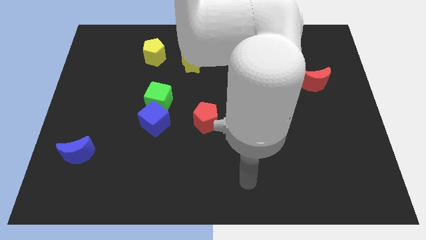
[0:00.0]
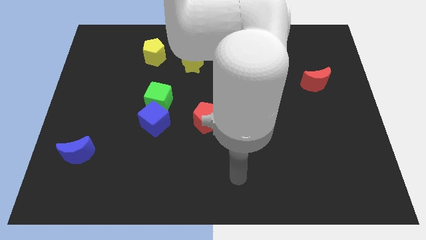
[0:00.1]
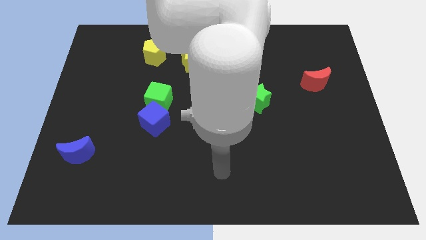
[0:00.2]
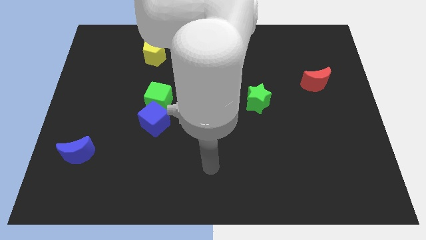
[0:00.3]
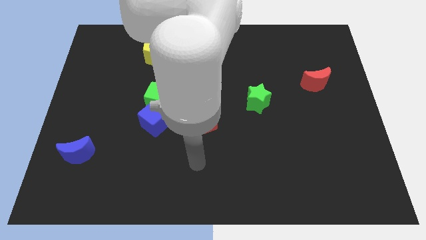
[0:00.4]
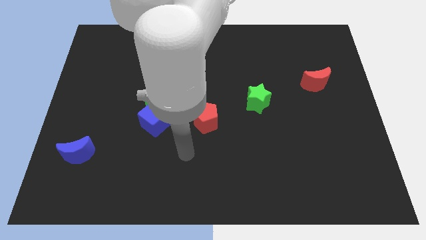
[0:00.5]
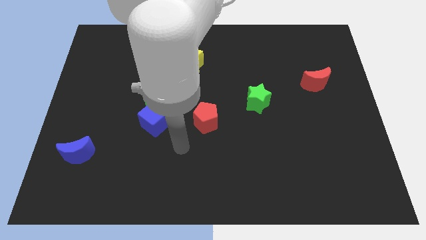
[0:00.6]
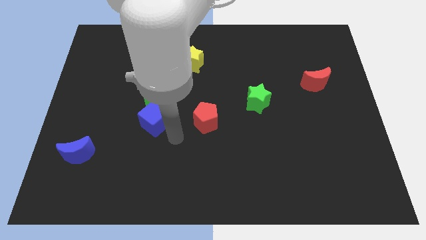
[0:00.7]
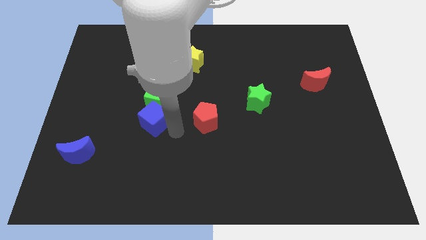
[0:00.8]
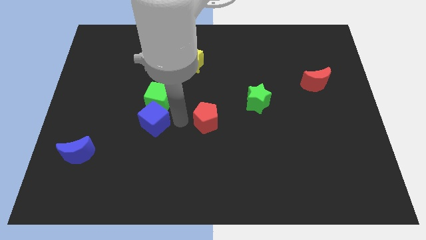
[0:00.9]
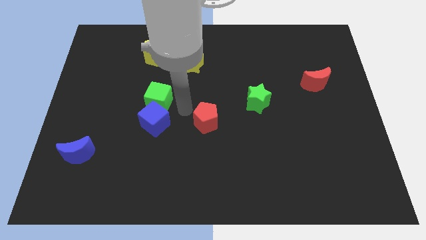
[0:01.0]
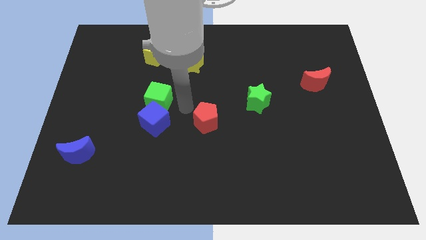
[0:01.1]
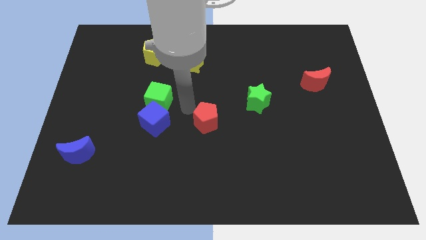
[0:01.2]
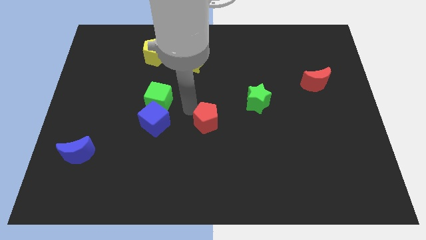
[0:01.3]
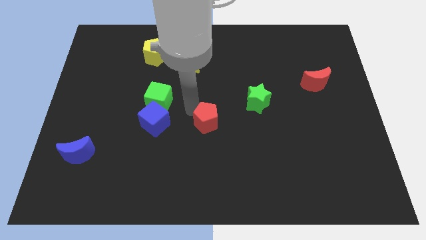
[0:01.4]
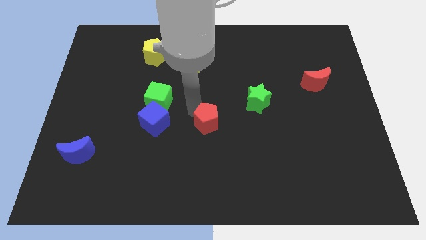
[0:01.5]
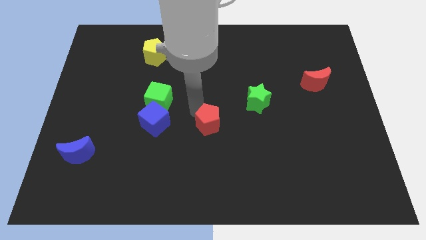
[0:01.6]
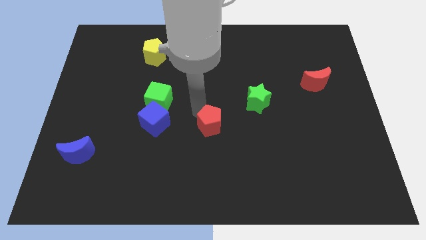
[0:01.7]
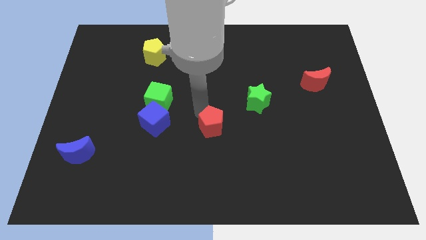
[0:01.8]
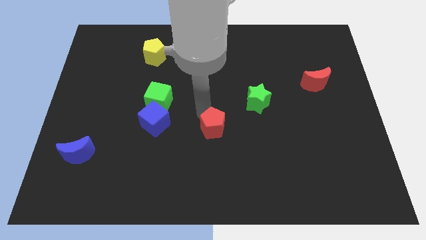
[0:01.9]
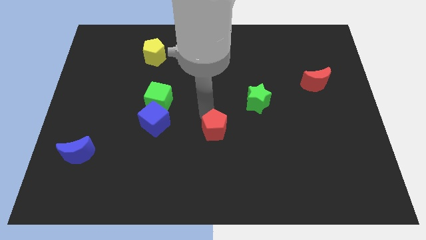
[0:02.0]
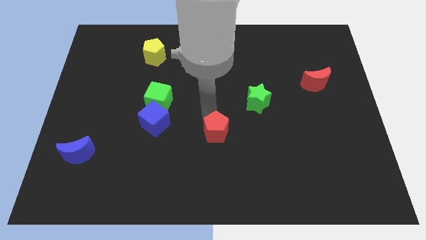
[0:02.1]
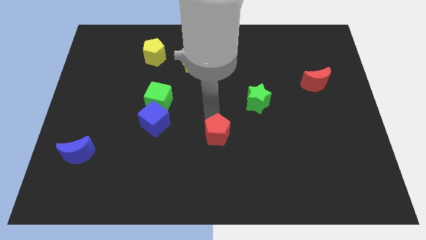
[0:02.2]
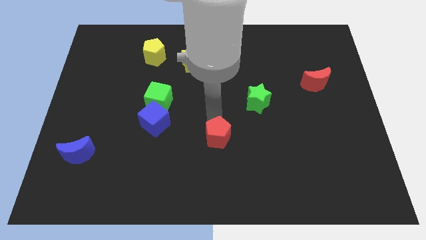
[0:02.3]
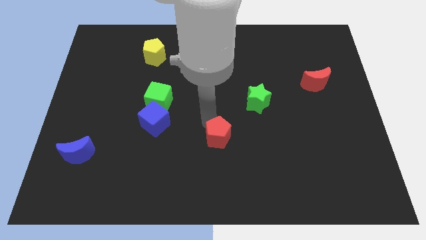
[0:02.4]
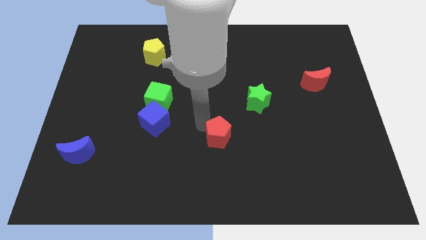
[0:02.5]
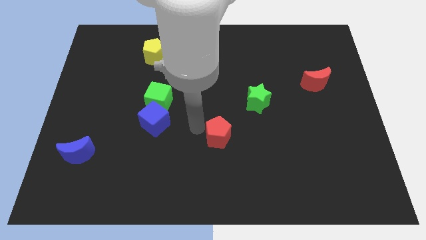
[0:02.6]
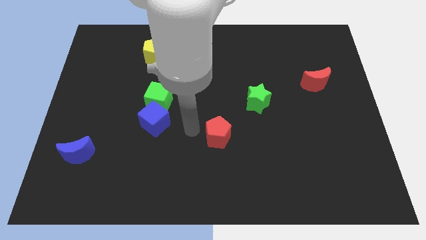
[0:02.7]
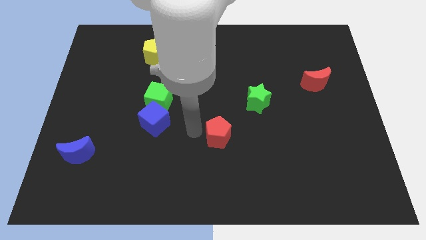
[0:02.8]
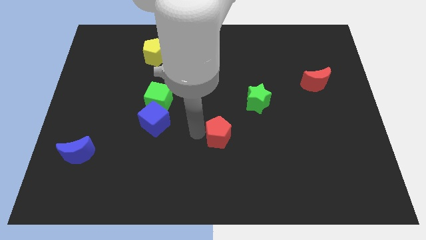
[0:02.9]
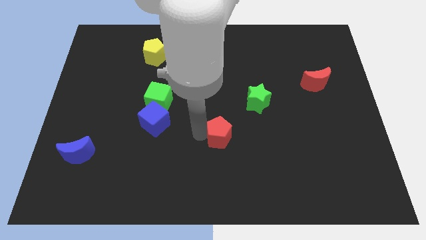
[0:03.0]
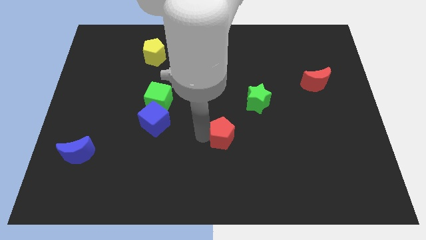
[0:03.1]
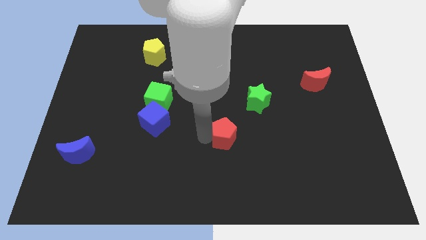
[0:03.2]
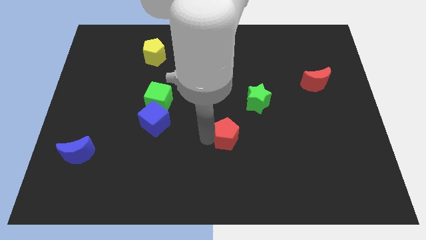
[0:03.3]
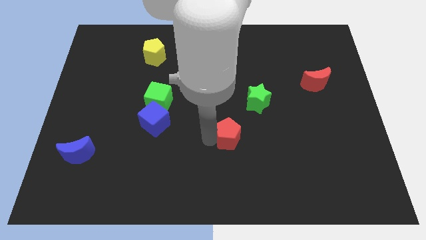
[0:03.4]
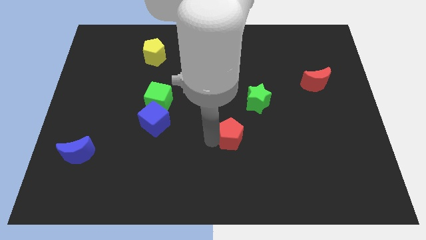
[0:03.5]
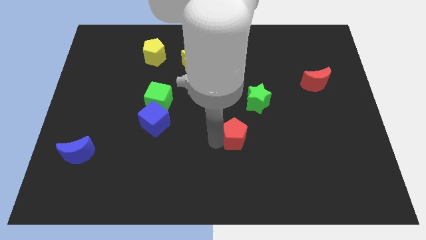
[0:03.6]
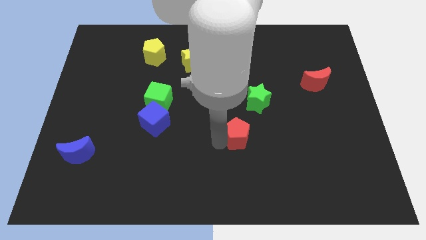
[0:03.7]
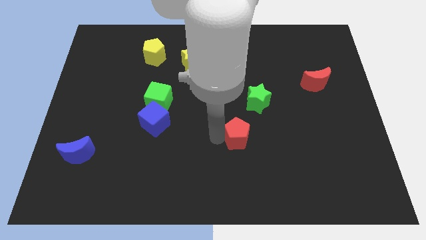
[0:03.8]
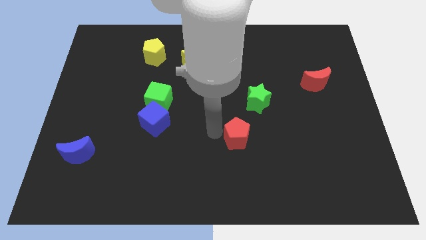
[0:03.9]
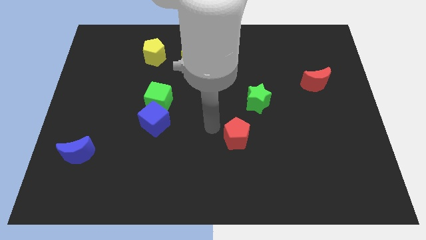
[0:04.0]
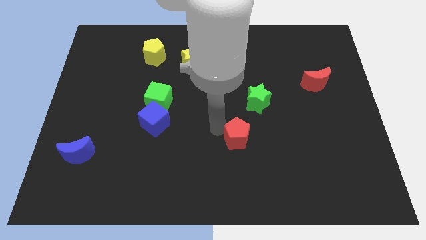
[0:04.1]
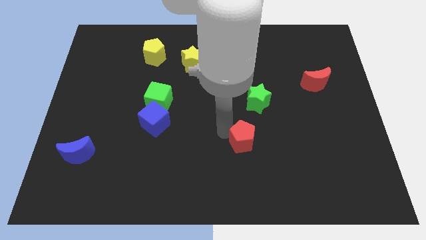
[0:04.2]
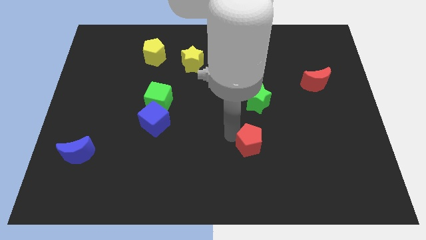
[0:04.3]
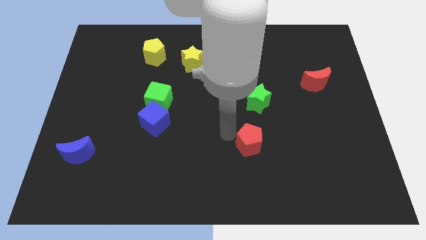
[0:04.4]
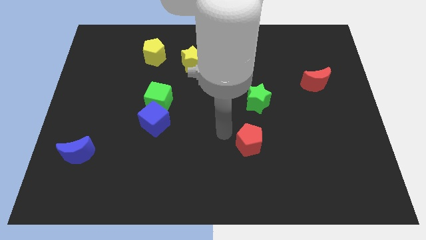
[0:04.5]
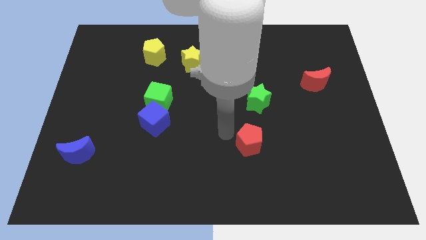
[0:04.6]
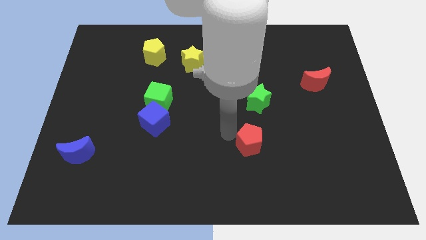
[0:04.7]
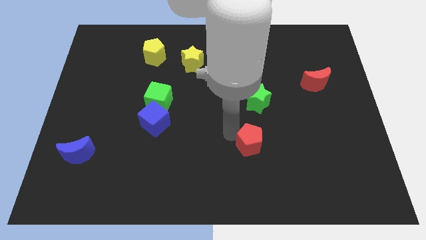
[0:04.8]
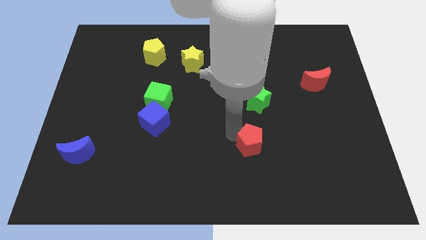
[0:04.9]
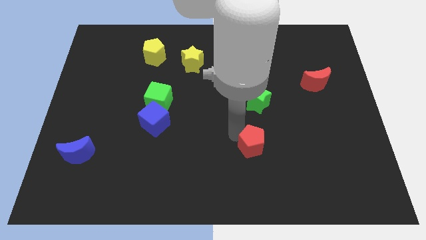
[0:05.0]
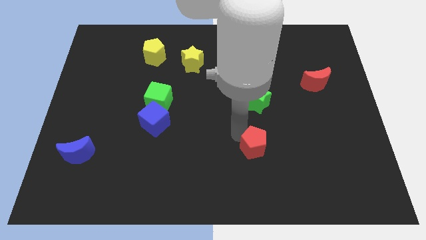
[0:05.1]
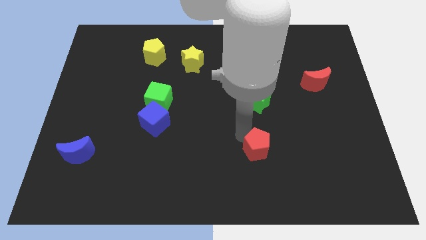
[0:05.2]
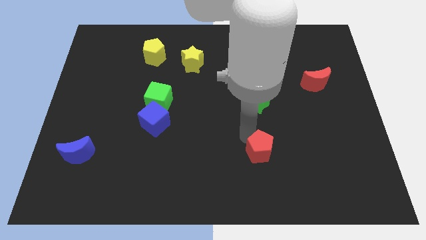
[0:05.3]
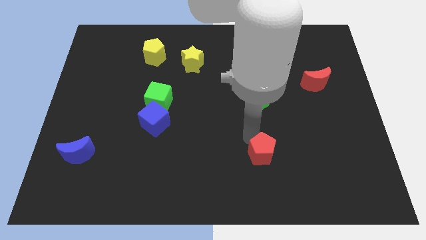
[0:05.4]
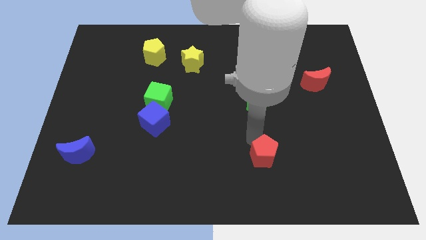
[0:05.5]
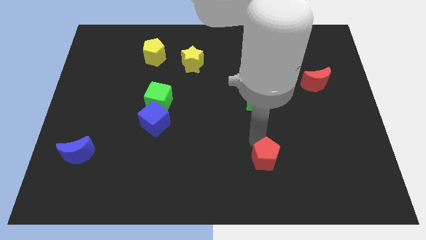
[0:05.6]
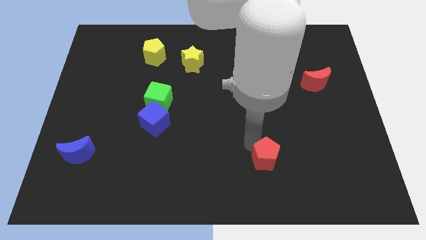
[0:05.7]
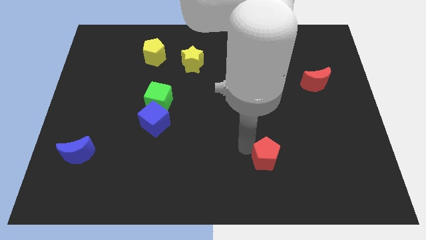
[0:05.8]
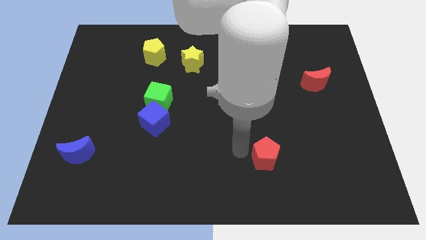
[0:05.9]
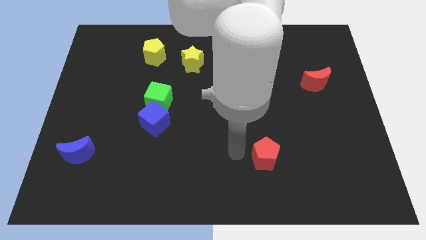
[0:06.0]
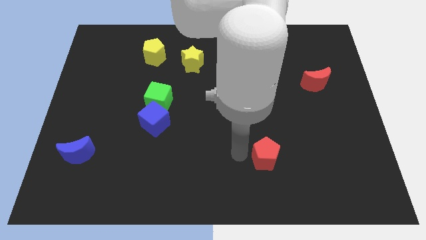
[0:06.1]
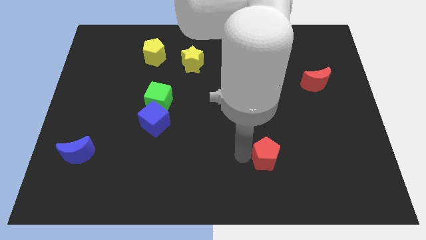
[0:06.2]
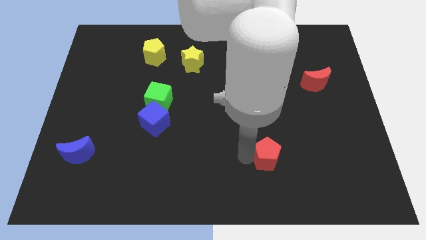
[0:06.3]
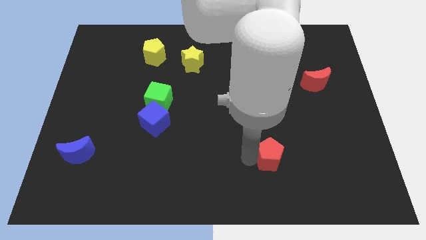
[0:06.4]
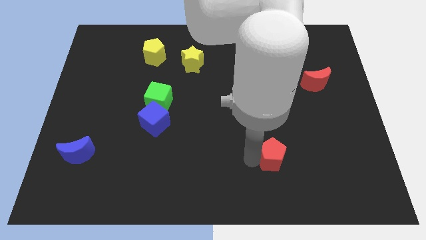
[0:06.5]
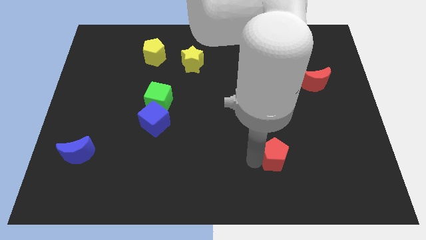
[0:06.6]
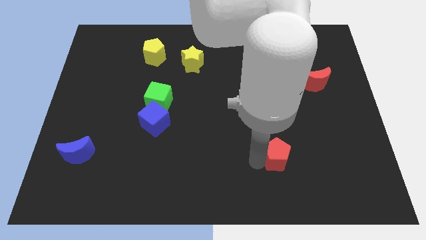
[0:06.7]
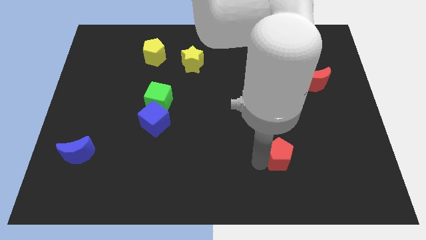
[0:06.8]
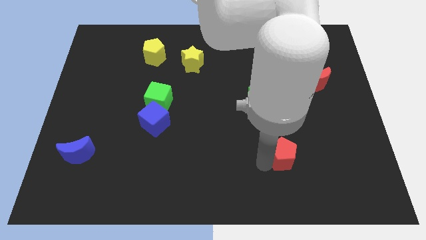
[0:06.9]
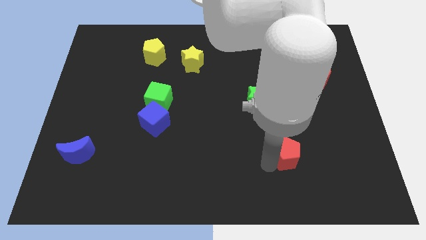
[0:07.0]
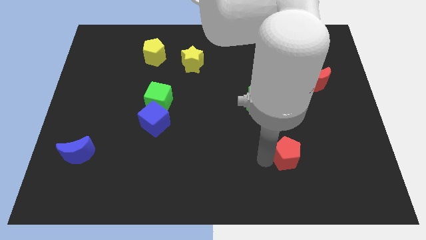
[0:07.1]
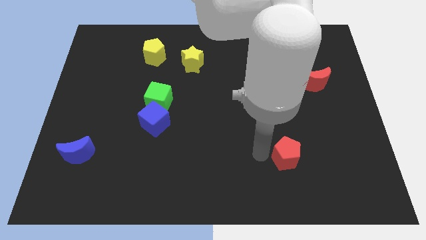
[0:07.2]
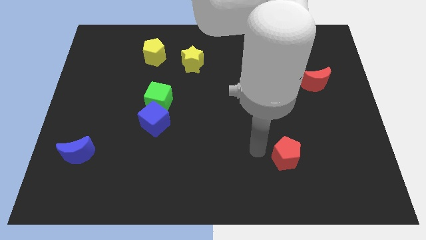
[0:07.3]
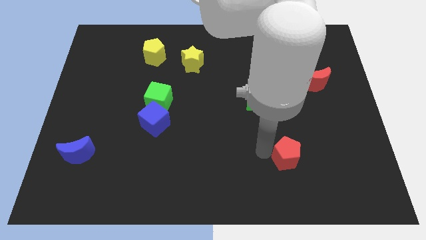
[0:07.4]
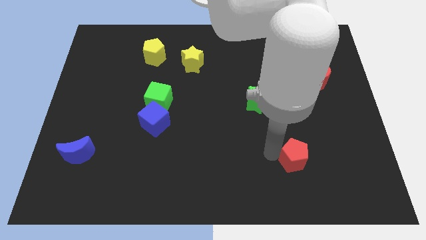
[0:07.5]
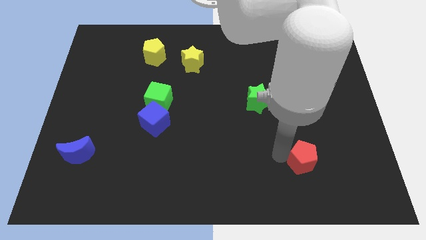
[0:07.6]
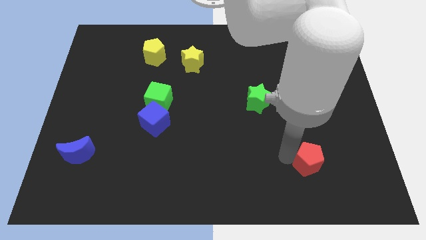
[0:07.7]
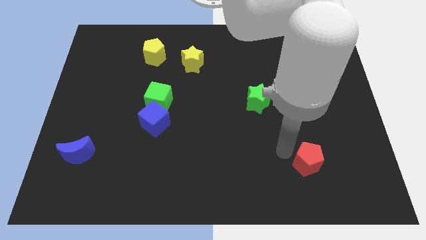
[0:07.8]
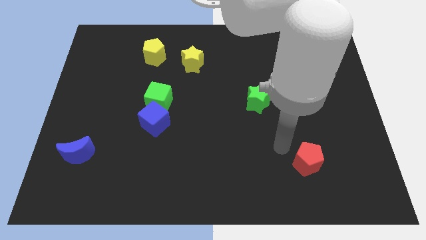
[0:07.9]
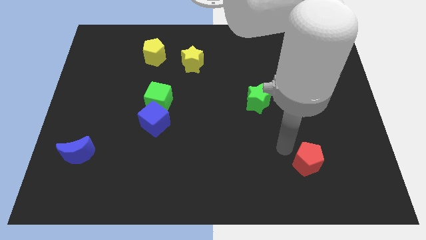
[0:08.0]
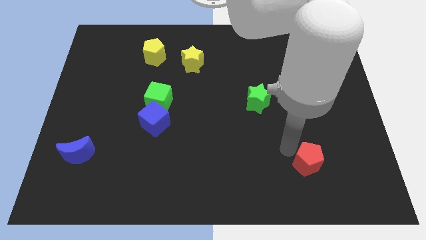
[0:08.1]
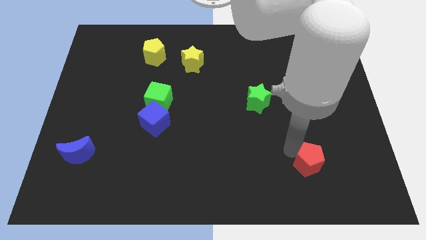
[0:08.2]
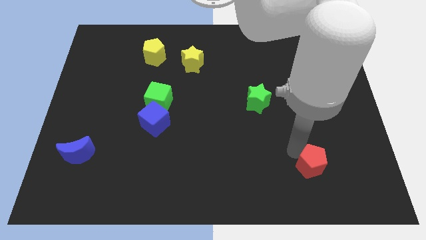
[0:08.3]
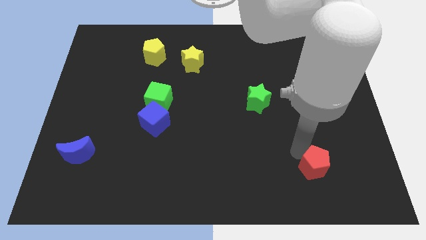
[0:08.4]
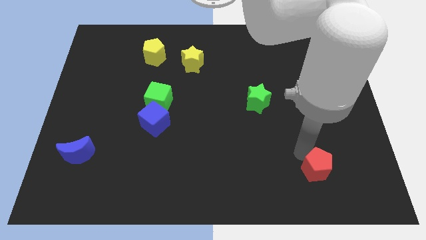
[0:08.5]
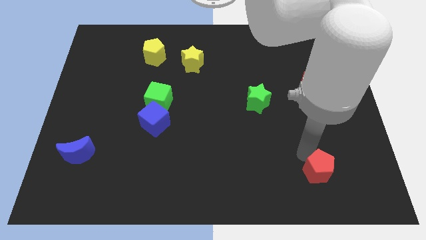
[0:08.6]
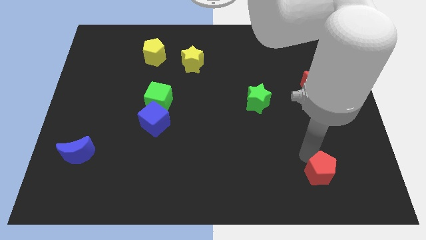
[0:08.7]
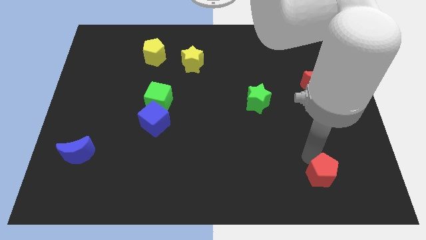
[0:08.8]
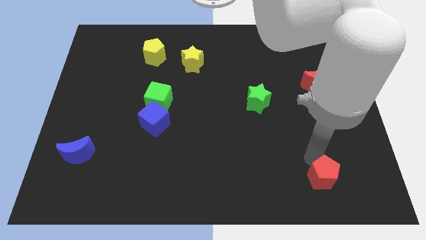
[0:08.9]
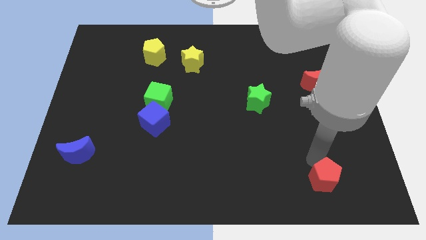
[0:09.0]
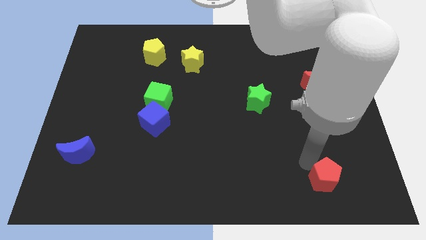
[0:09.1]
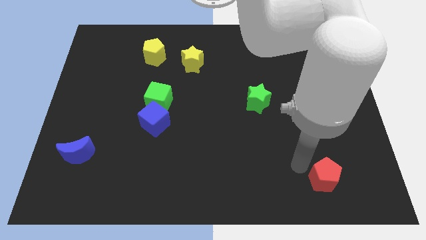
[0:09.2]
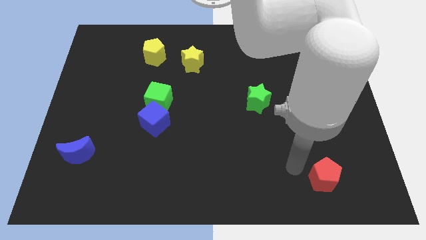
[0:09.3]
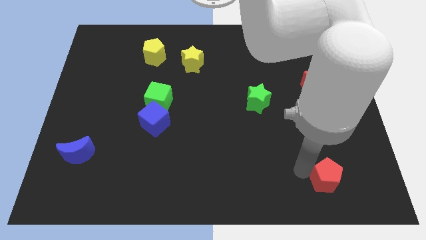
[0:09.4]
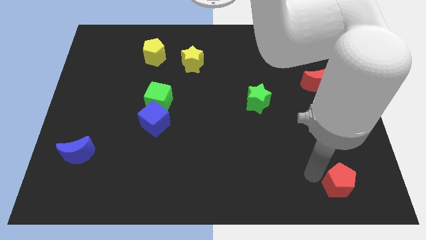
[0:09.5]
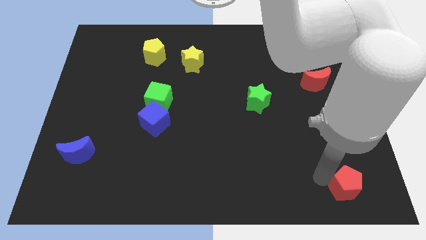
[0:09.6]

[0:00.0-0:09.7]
slide the red pentagon to the bottom right of the board
